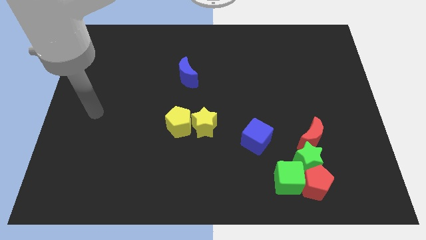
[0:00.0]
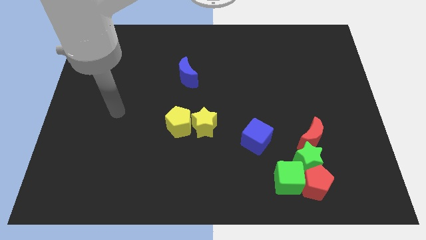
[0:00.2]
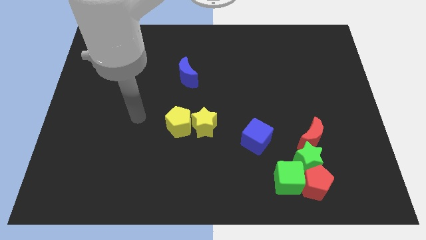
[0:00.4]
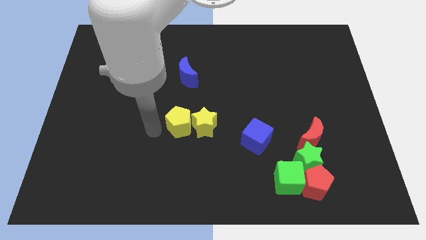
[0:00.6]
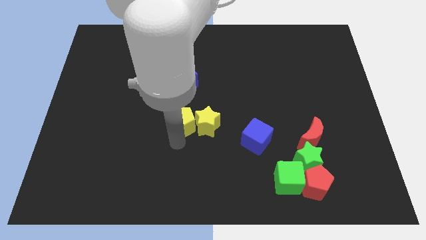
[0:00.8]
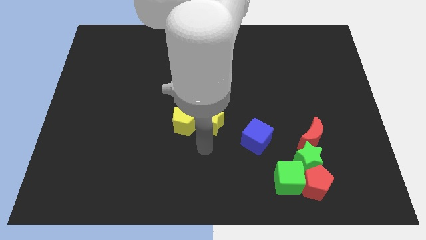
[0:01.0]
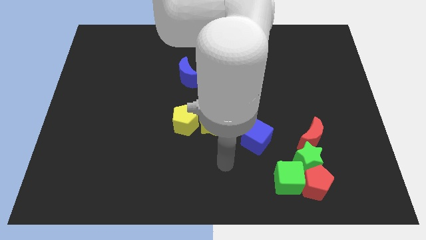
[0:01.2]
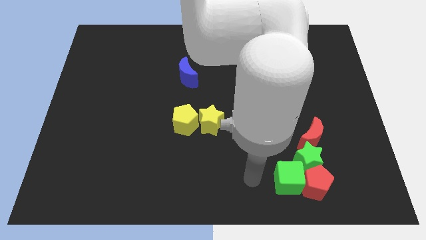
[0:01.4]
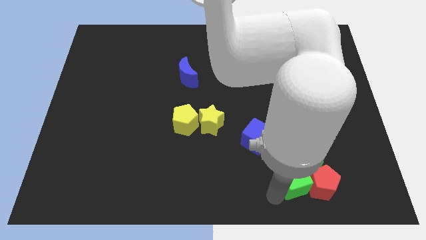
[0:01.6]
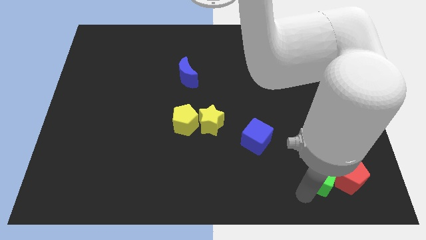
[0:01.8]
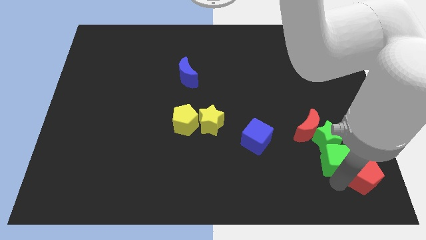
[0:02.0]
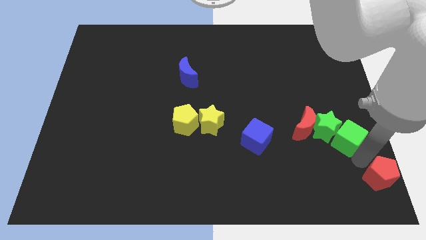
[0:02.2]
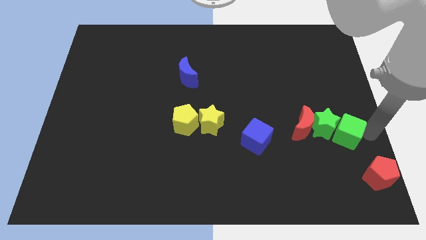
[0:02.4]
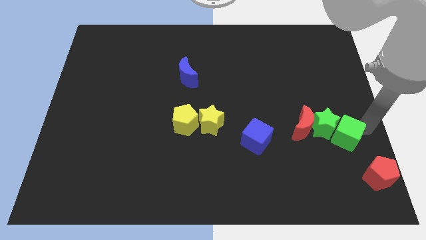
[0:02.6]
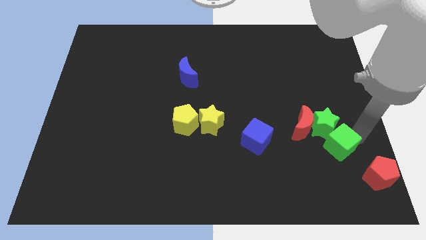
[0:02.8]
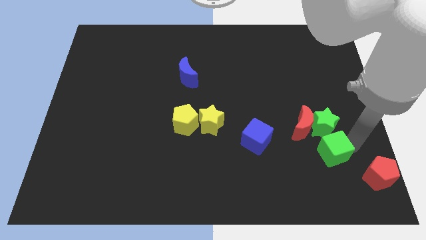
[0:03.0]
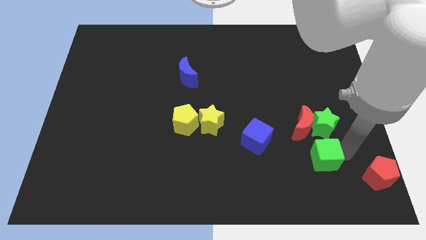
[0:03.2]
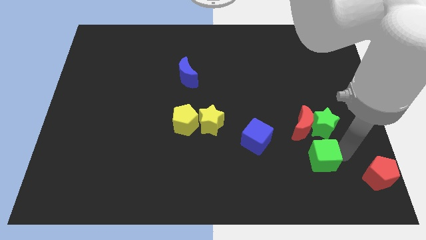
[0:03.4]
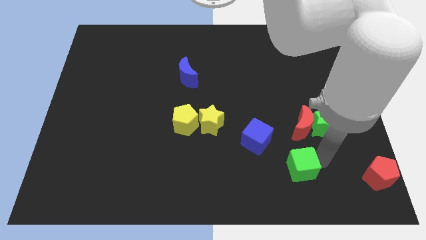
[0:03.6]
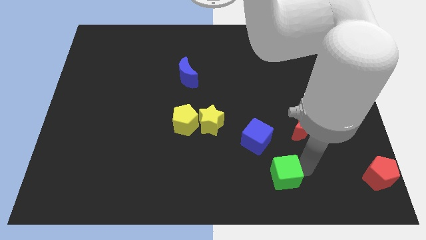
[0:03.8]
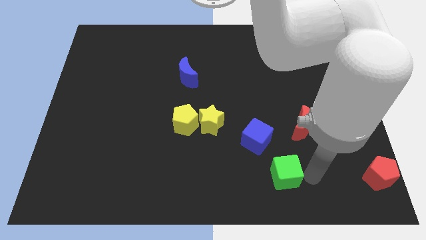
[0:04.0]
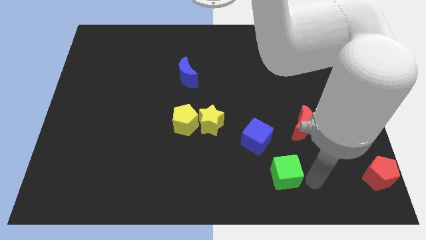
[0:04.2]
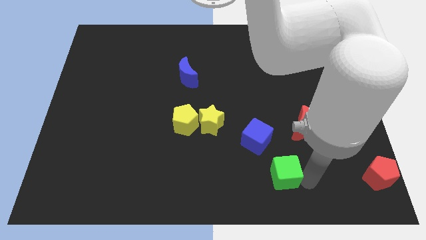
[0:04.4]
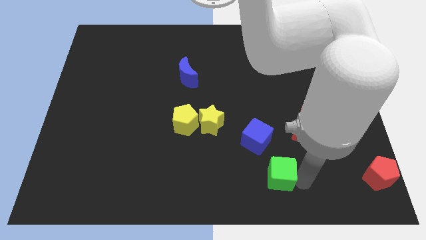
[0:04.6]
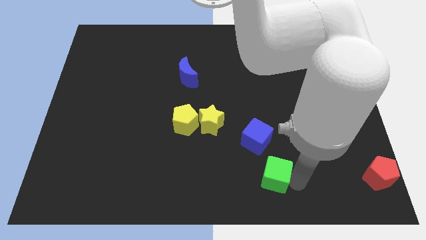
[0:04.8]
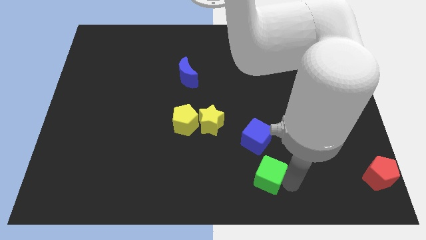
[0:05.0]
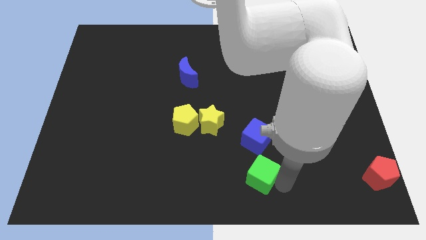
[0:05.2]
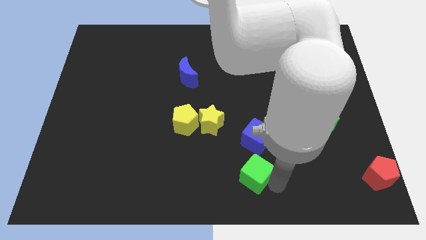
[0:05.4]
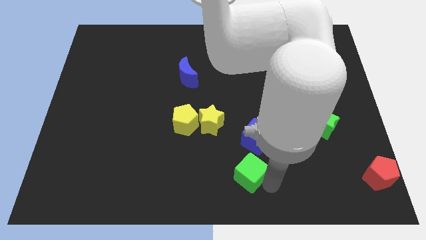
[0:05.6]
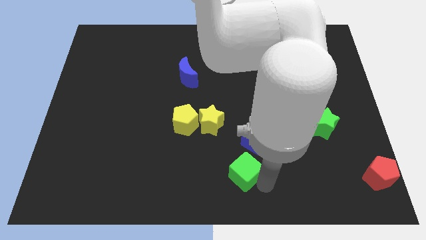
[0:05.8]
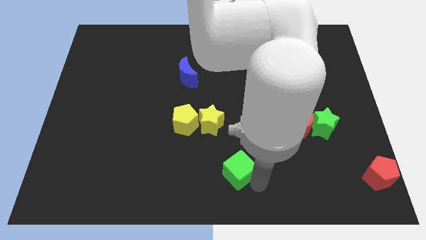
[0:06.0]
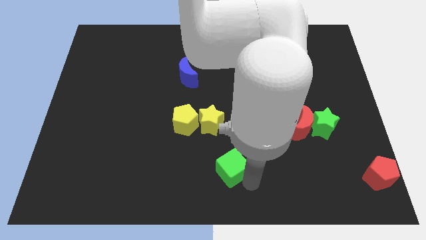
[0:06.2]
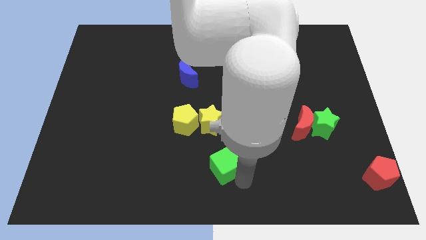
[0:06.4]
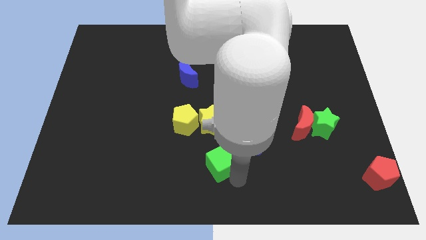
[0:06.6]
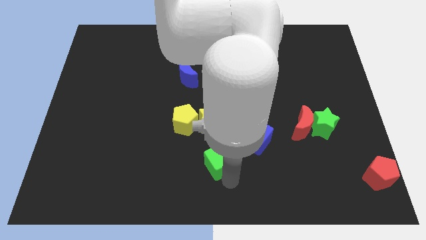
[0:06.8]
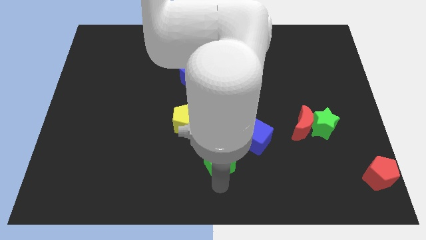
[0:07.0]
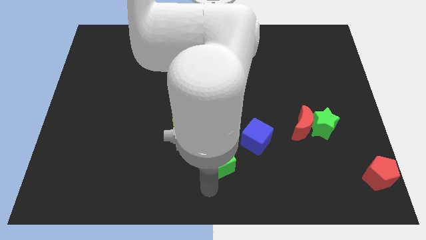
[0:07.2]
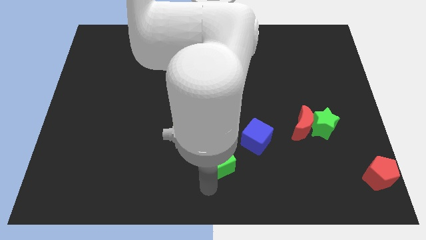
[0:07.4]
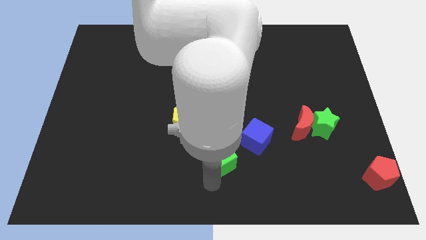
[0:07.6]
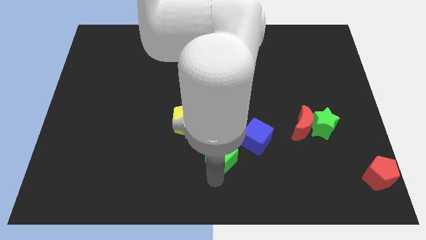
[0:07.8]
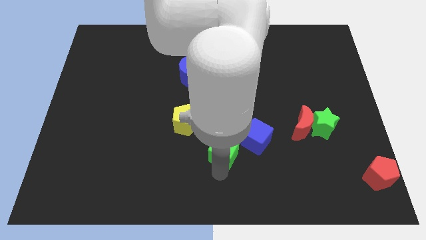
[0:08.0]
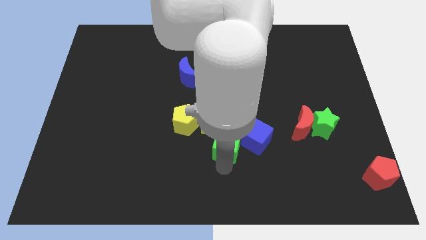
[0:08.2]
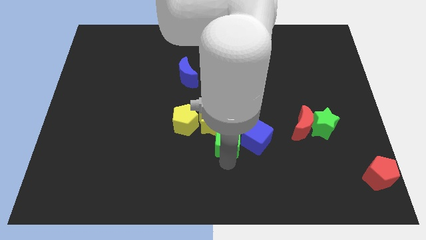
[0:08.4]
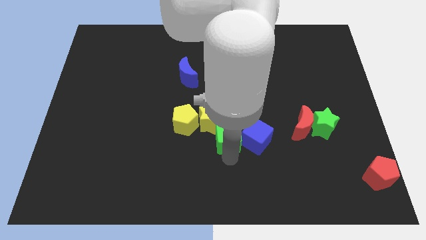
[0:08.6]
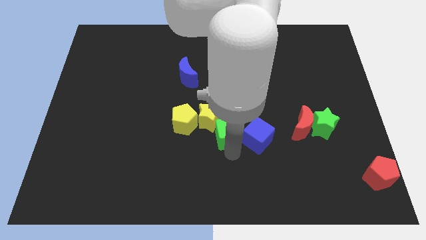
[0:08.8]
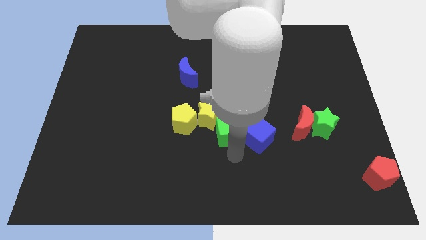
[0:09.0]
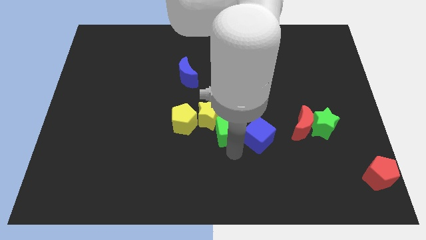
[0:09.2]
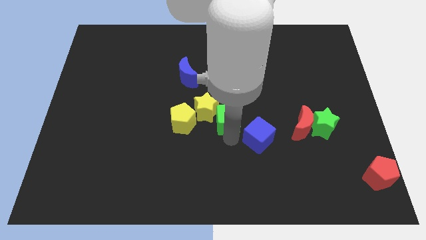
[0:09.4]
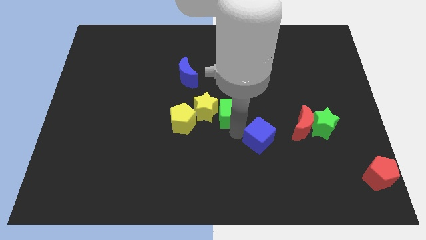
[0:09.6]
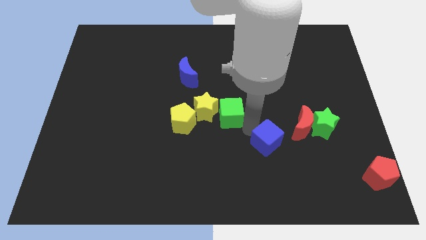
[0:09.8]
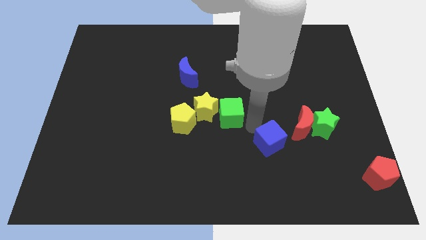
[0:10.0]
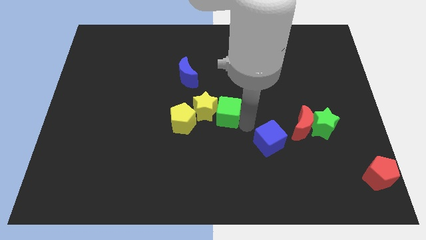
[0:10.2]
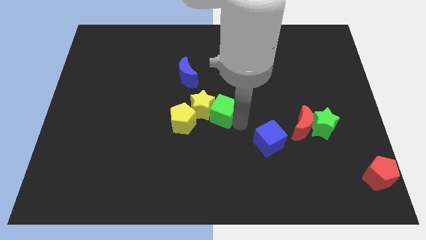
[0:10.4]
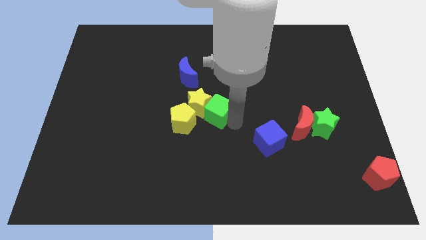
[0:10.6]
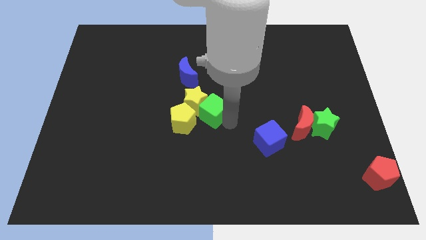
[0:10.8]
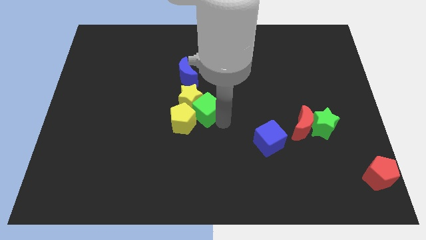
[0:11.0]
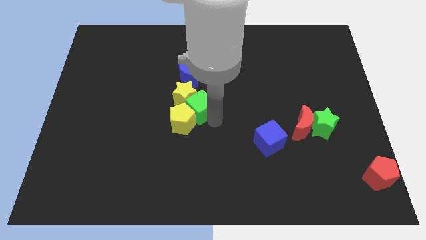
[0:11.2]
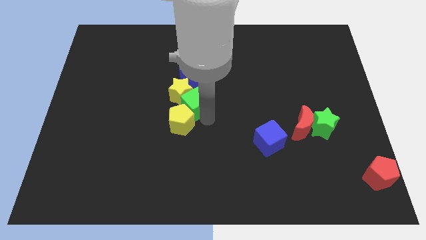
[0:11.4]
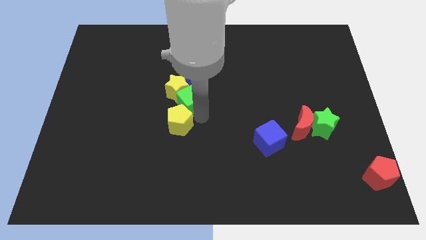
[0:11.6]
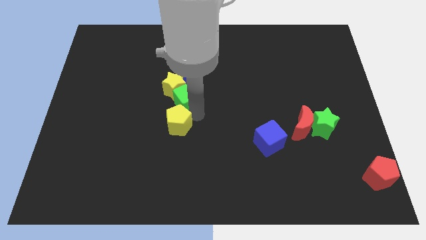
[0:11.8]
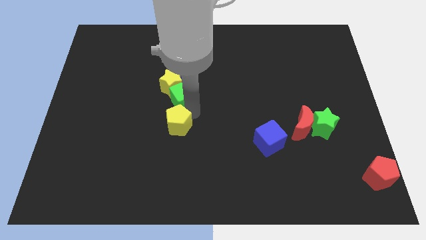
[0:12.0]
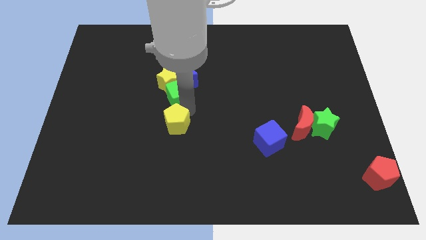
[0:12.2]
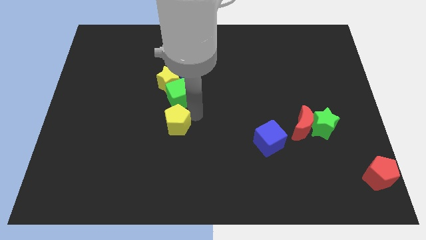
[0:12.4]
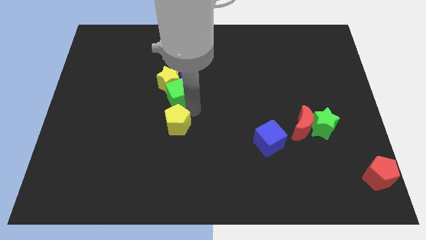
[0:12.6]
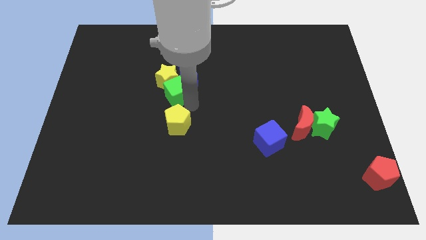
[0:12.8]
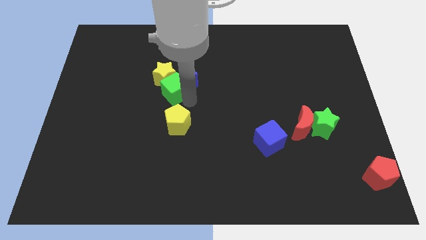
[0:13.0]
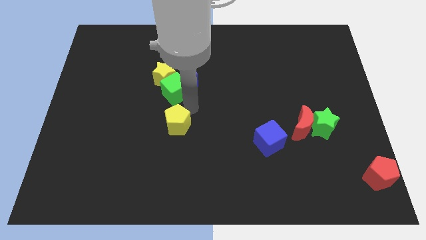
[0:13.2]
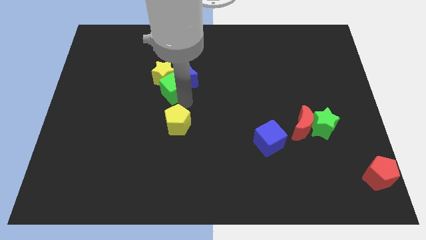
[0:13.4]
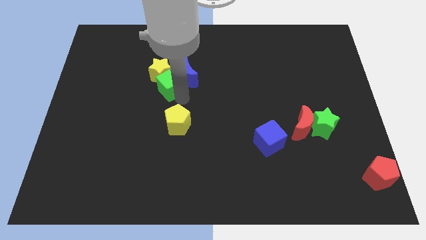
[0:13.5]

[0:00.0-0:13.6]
move the green cube to the left of the blue moon
